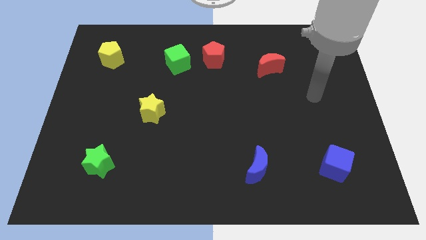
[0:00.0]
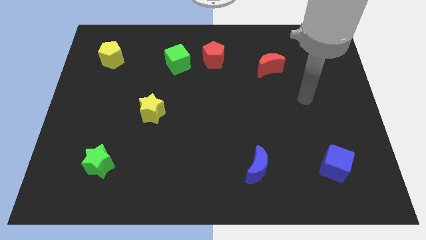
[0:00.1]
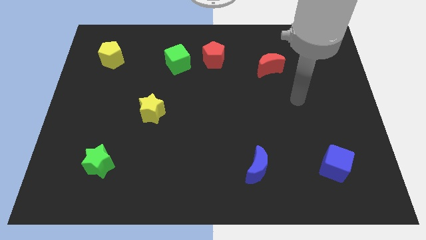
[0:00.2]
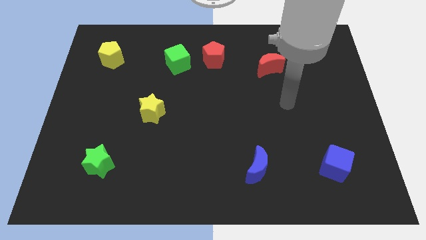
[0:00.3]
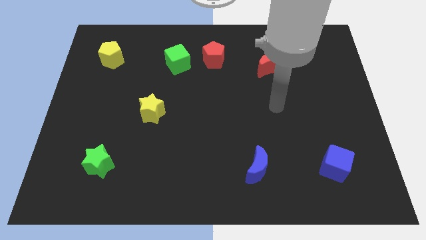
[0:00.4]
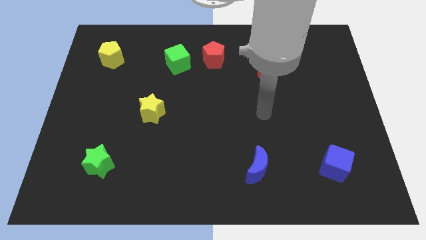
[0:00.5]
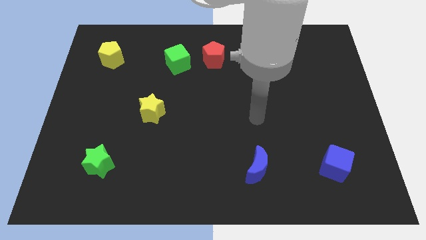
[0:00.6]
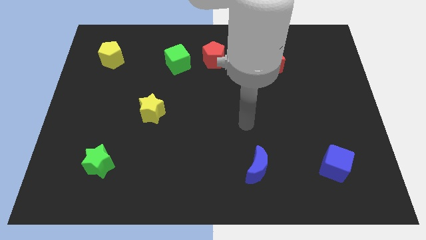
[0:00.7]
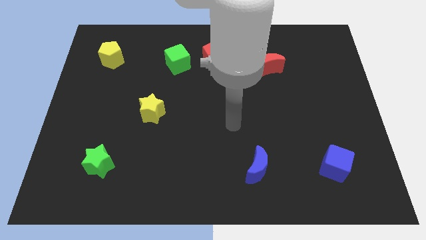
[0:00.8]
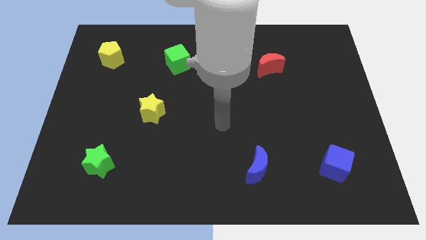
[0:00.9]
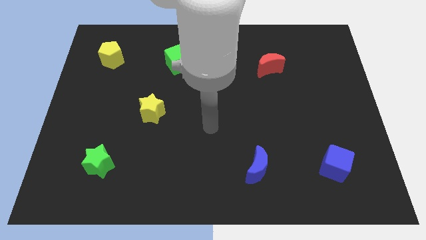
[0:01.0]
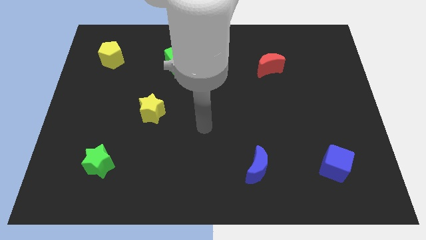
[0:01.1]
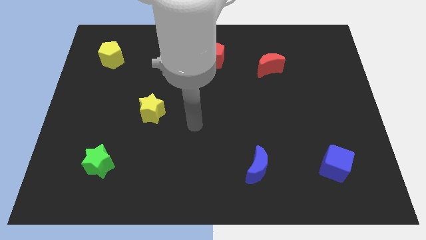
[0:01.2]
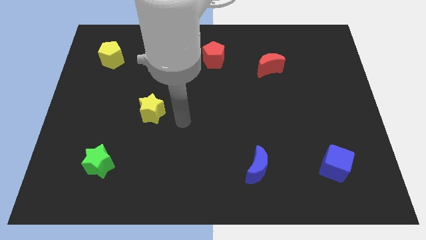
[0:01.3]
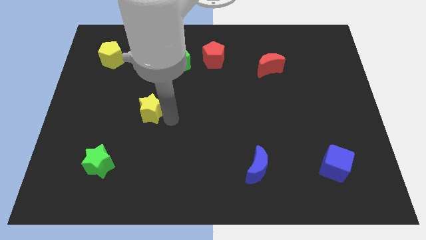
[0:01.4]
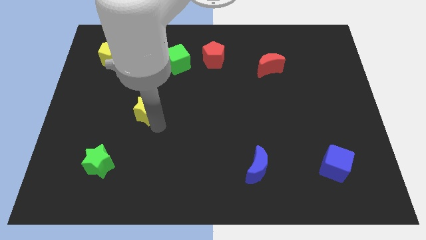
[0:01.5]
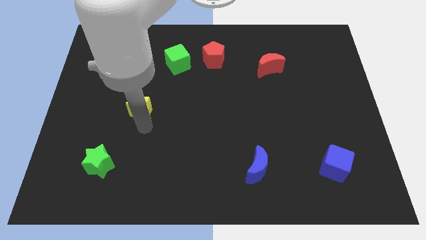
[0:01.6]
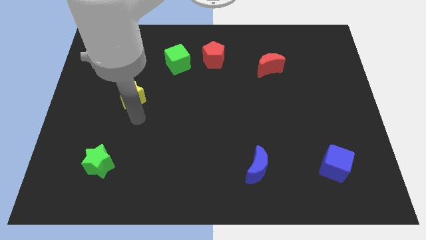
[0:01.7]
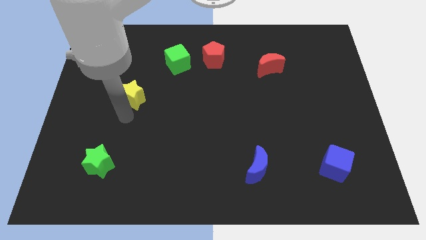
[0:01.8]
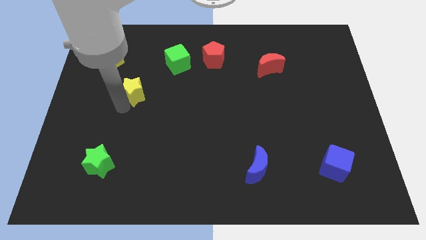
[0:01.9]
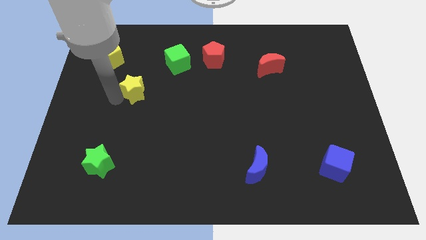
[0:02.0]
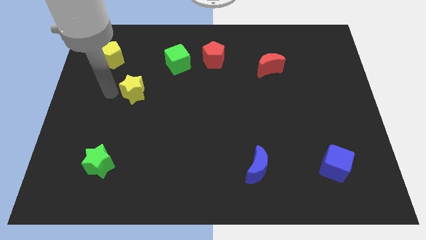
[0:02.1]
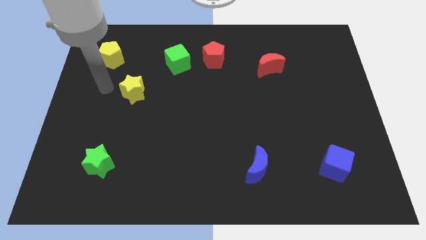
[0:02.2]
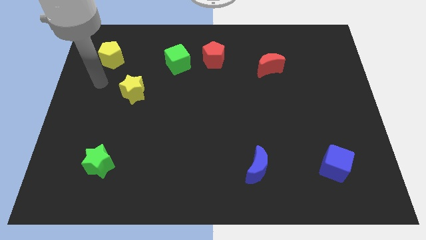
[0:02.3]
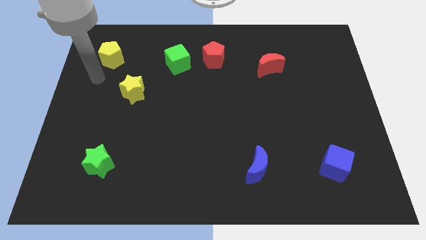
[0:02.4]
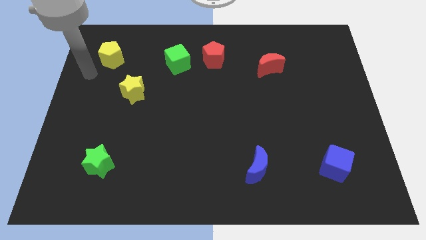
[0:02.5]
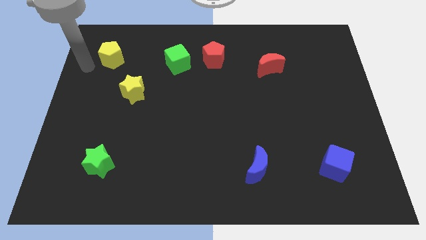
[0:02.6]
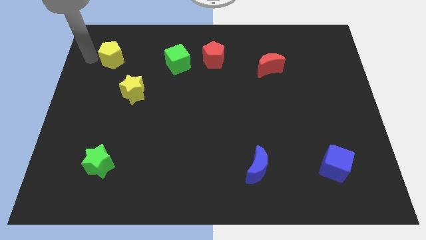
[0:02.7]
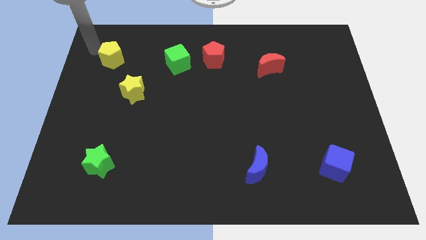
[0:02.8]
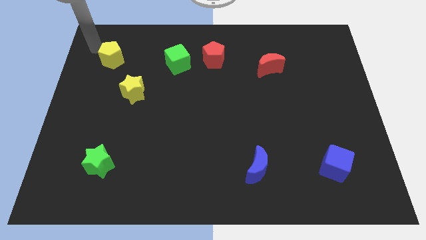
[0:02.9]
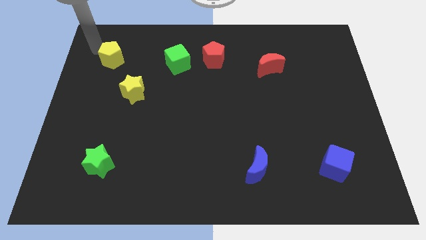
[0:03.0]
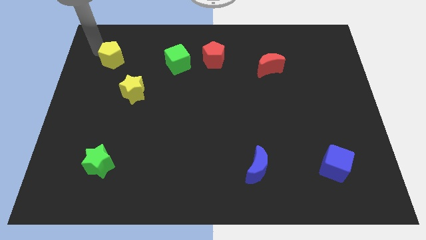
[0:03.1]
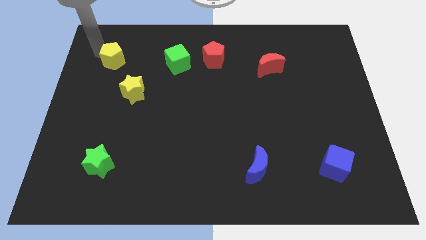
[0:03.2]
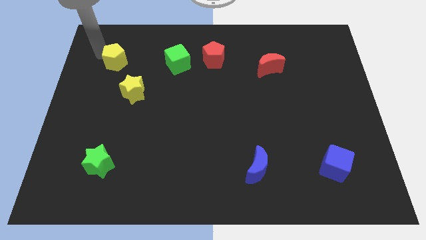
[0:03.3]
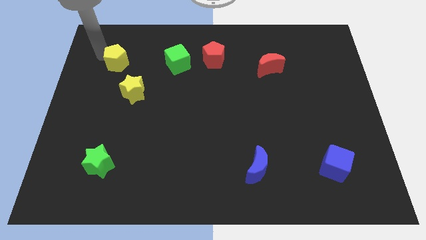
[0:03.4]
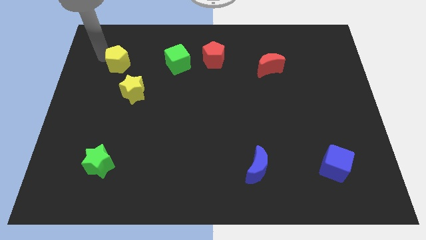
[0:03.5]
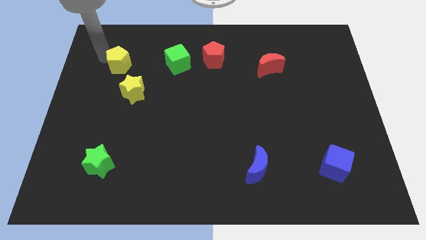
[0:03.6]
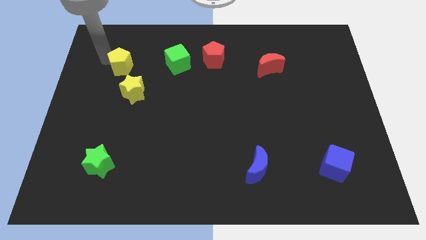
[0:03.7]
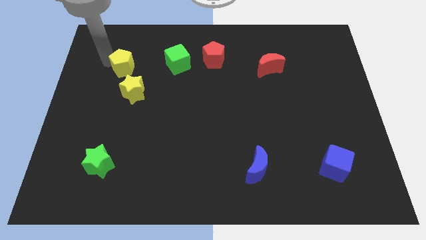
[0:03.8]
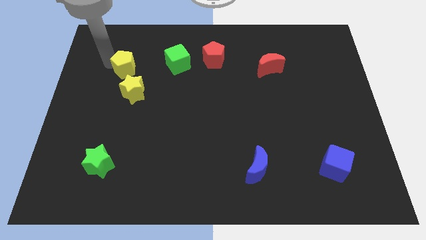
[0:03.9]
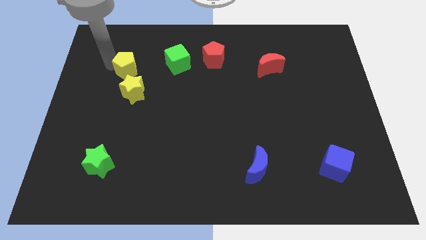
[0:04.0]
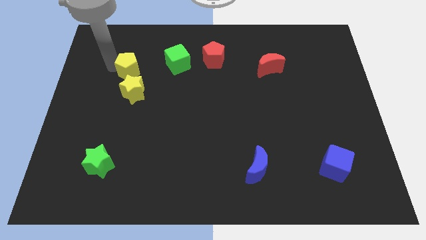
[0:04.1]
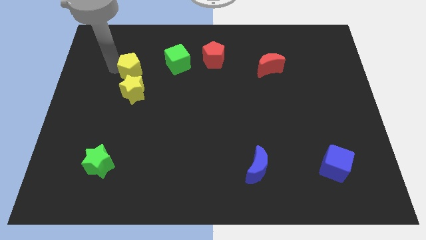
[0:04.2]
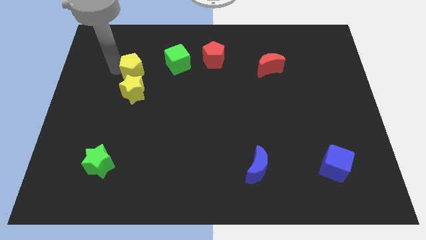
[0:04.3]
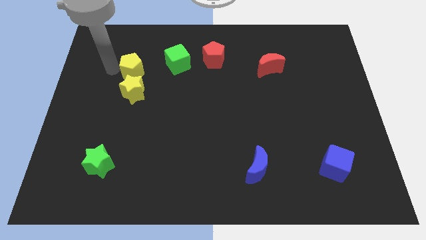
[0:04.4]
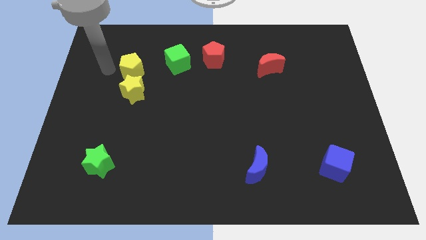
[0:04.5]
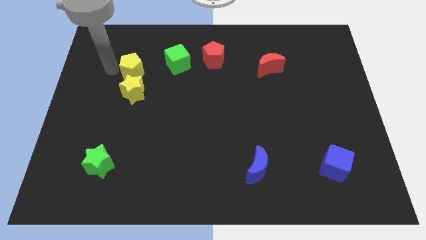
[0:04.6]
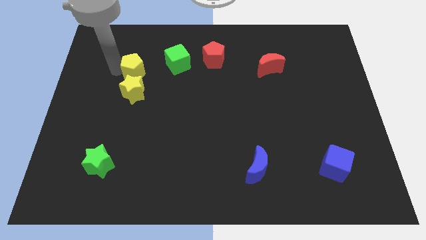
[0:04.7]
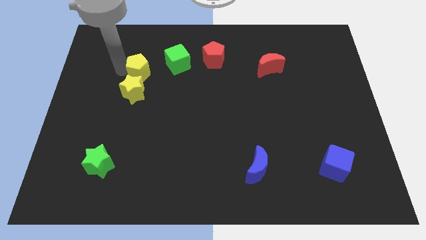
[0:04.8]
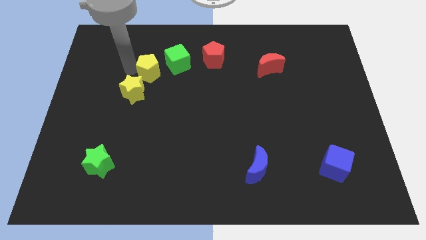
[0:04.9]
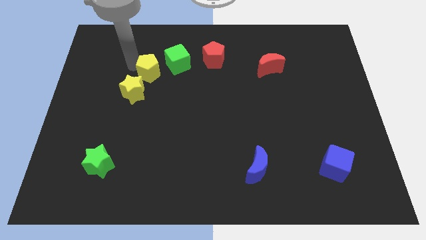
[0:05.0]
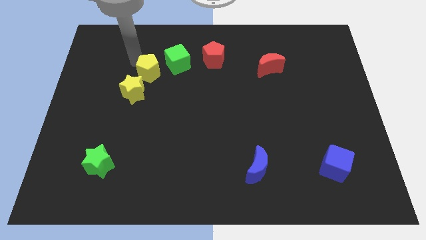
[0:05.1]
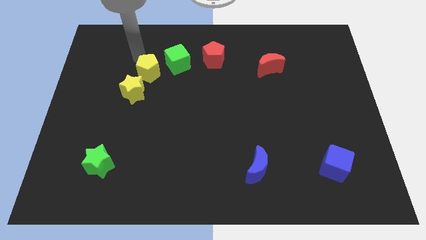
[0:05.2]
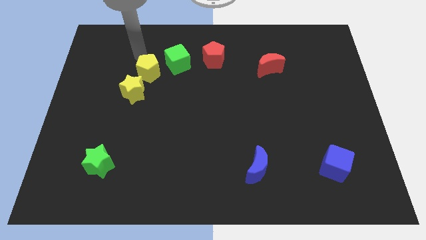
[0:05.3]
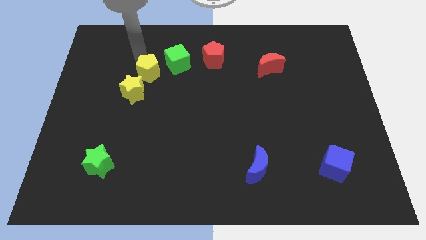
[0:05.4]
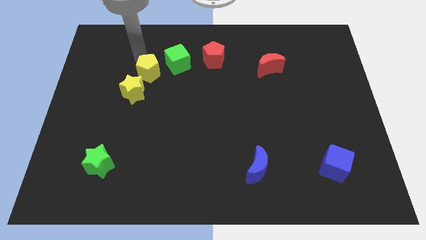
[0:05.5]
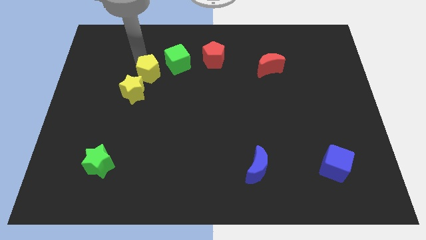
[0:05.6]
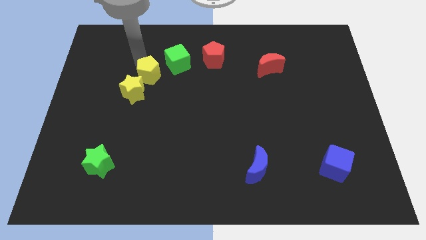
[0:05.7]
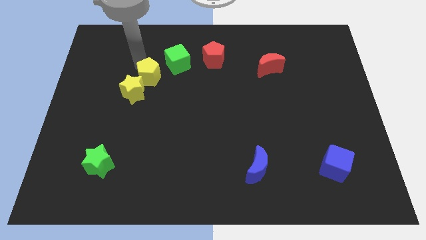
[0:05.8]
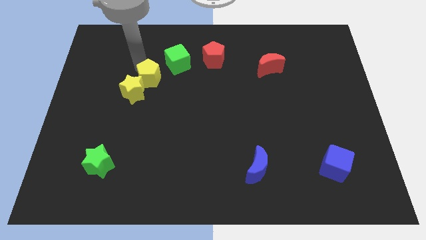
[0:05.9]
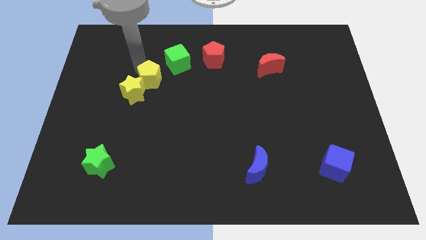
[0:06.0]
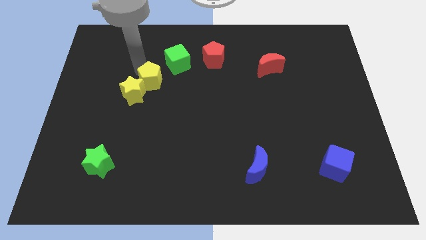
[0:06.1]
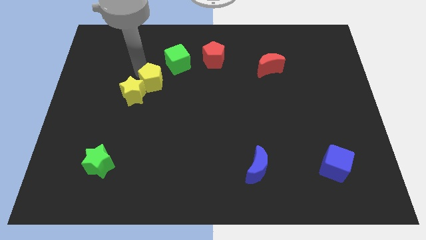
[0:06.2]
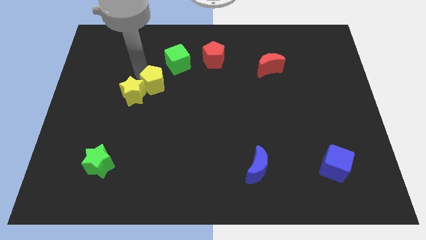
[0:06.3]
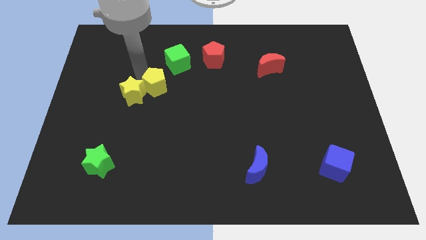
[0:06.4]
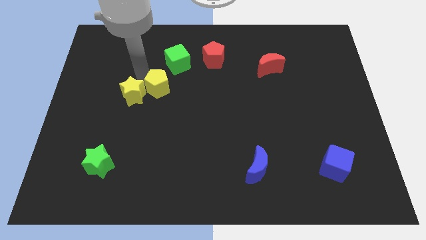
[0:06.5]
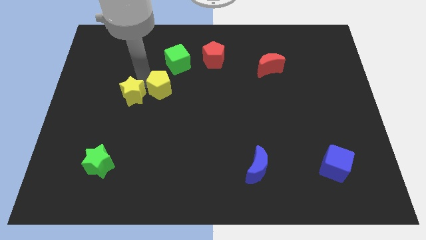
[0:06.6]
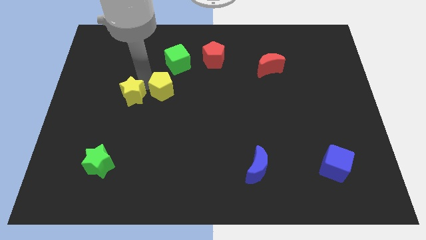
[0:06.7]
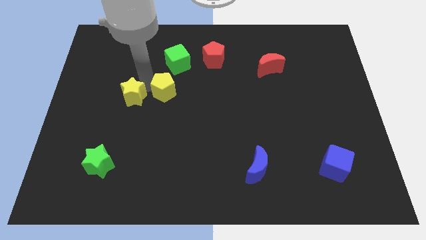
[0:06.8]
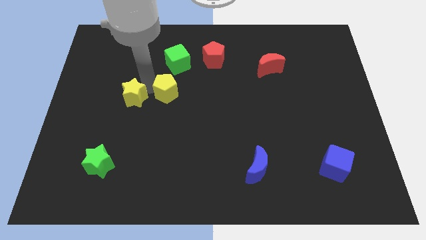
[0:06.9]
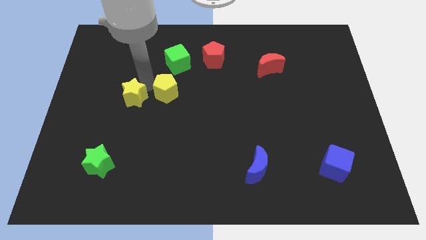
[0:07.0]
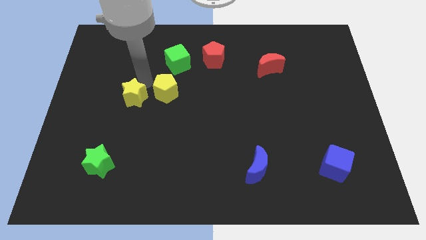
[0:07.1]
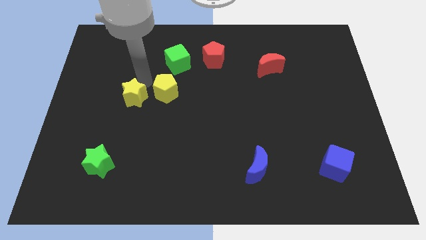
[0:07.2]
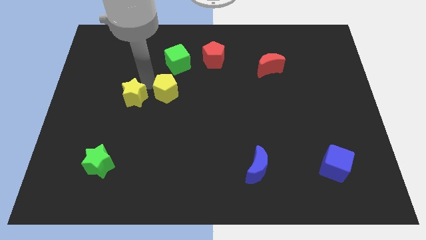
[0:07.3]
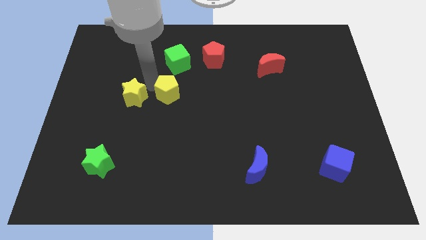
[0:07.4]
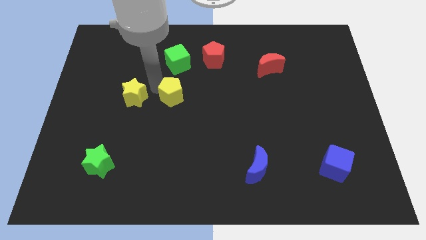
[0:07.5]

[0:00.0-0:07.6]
move the yellow pentagon downwards and then right
